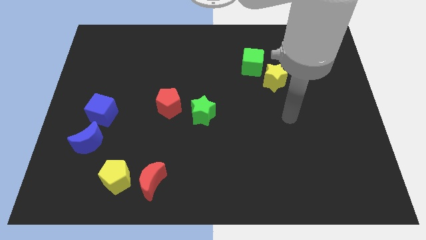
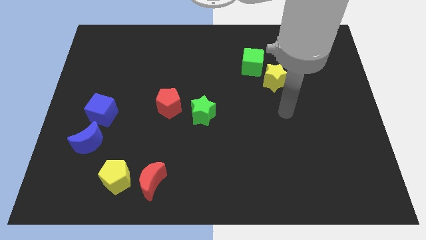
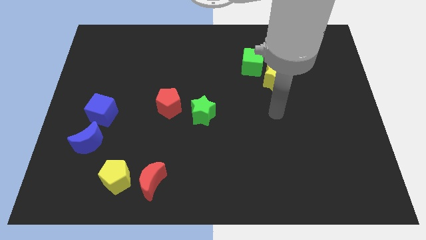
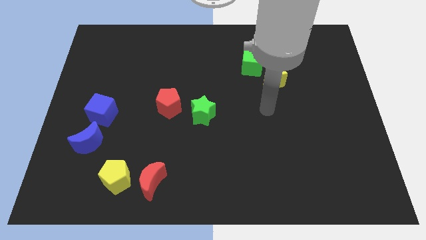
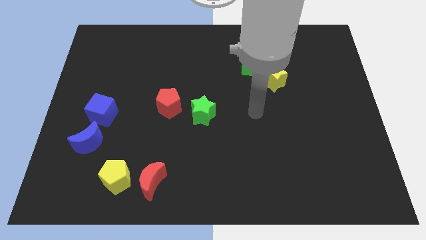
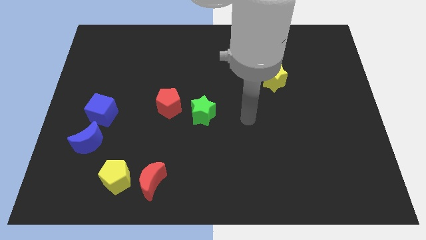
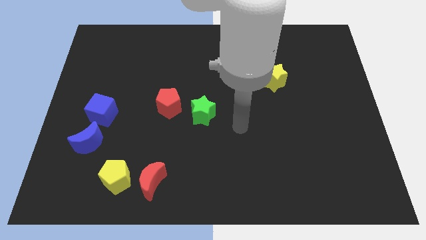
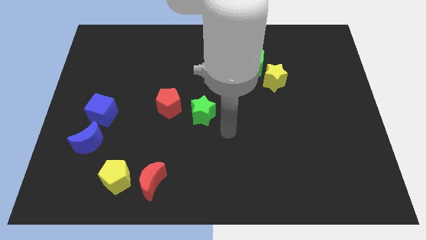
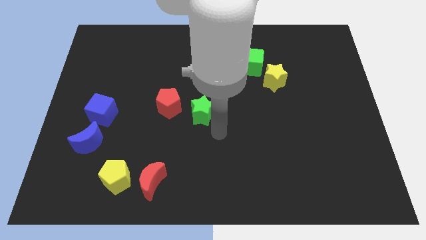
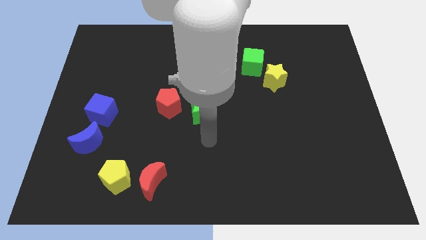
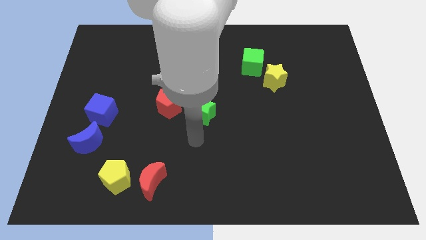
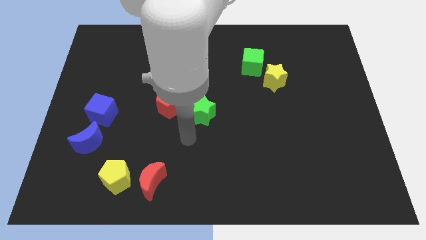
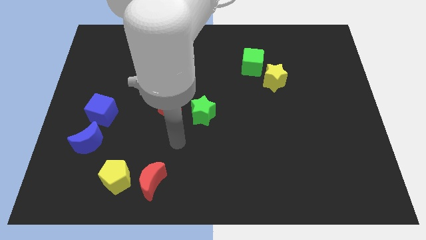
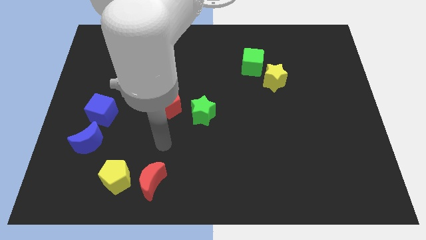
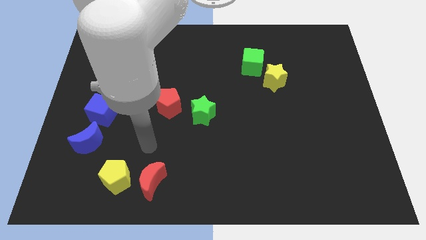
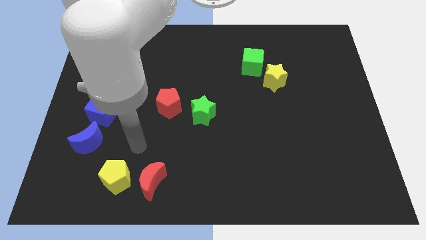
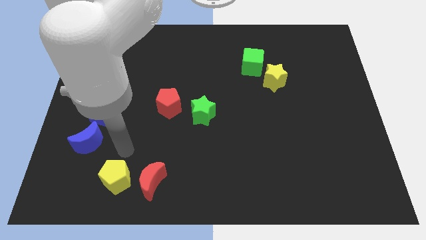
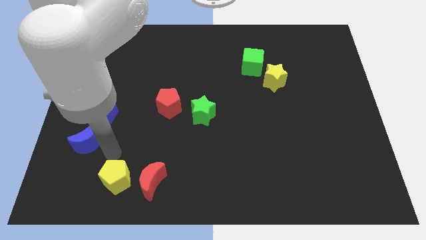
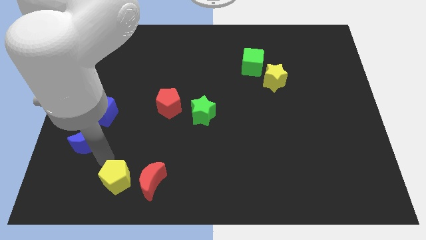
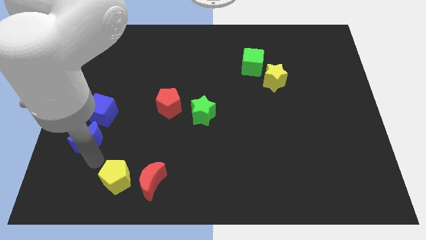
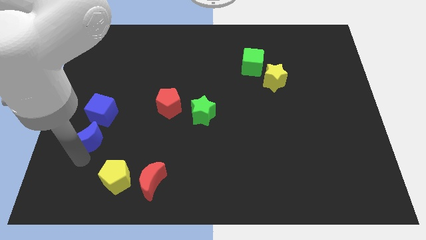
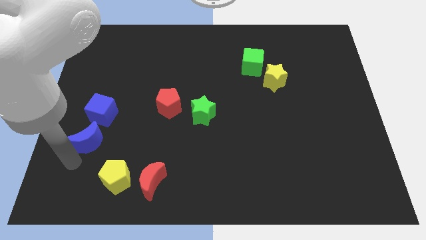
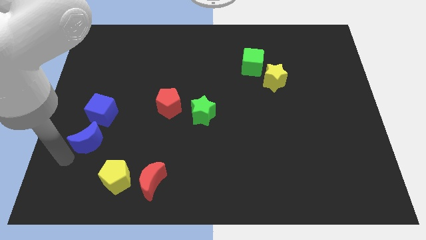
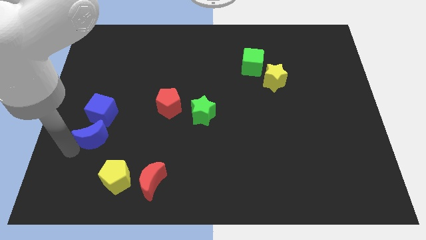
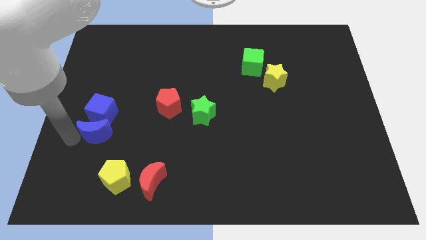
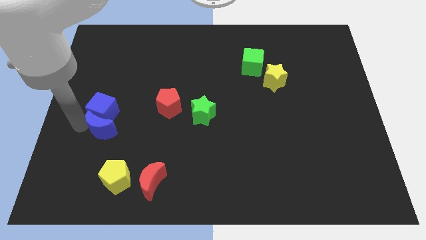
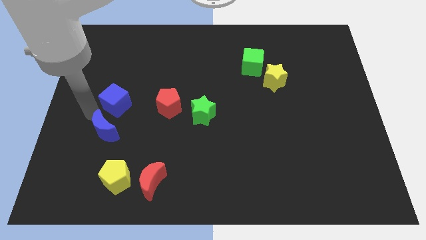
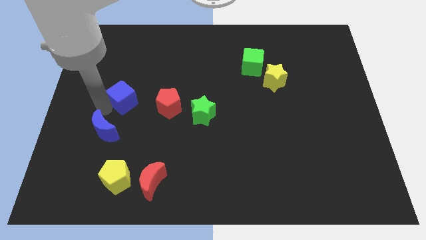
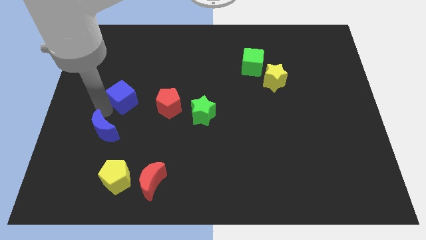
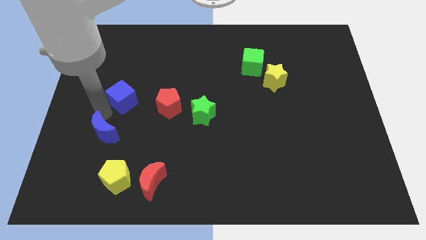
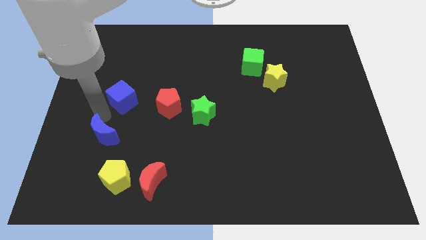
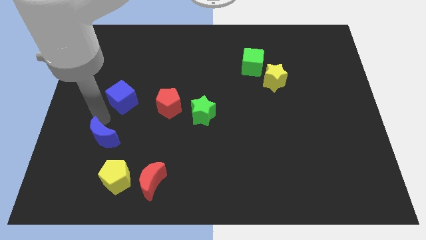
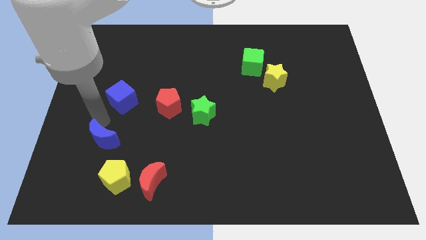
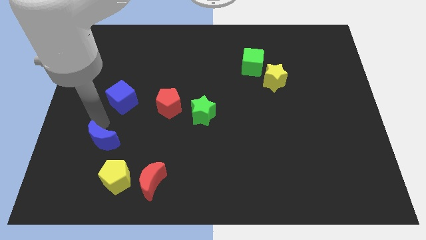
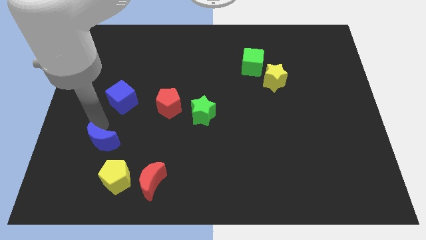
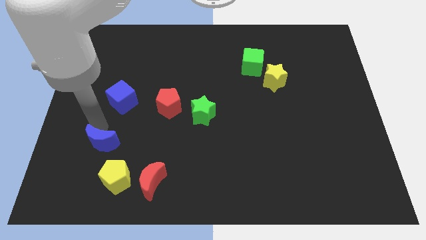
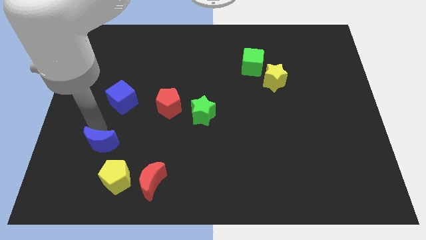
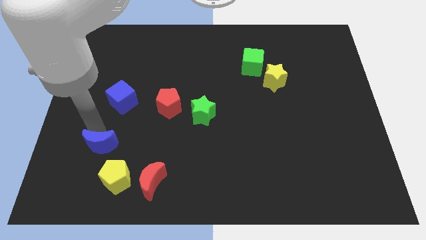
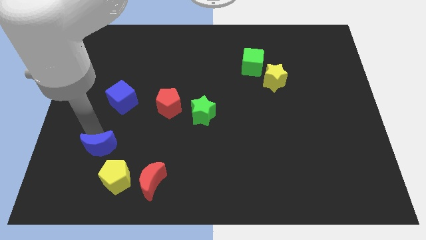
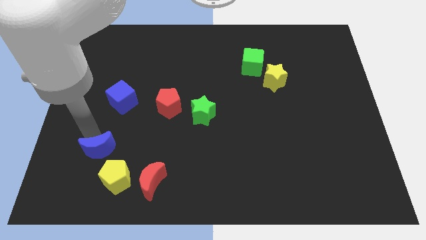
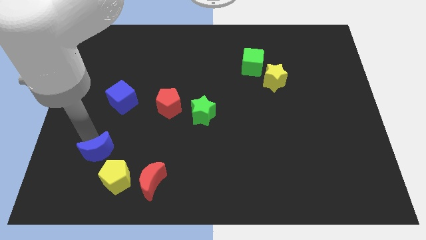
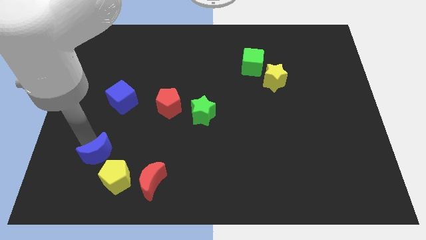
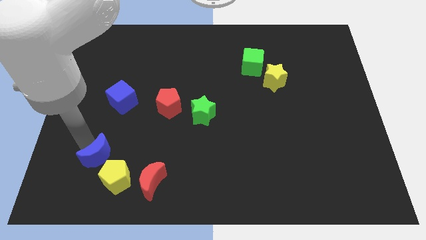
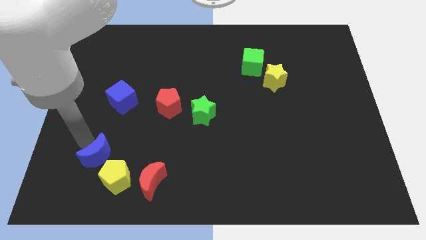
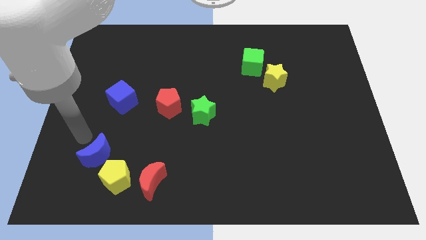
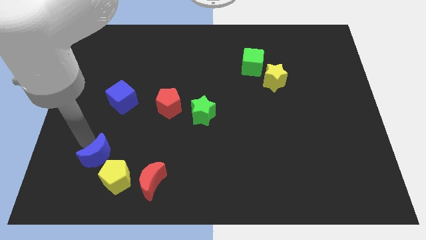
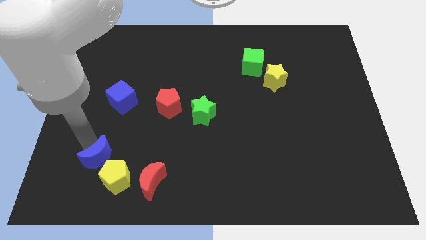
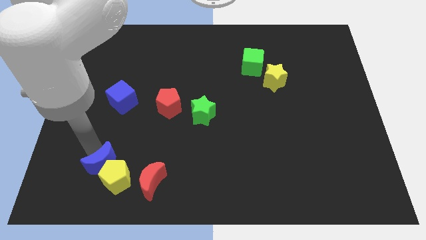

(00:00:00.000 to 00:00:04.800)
push the blue moon towards the yellow pentagon

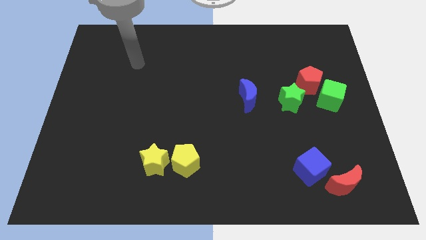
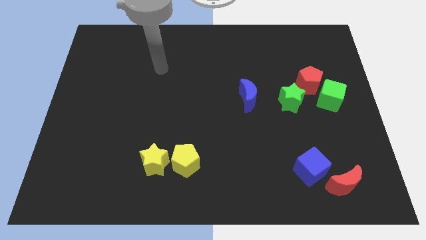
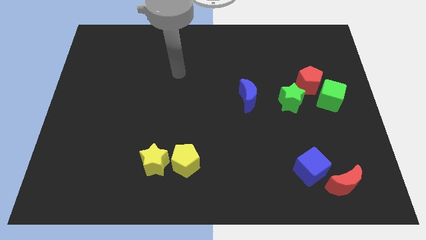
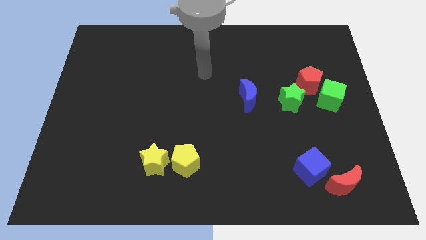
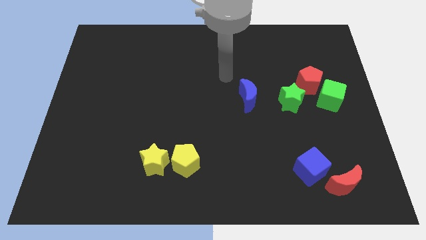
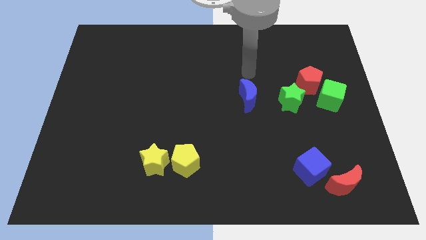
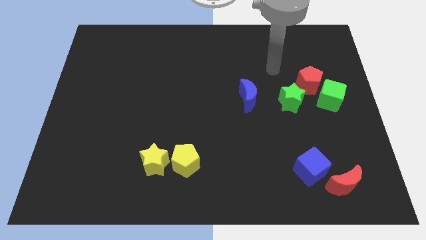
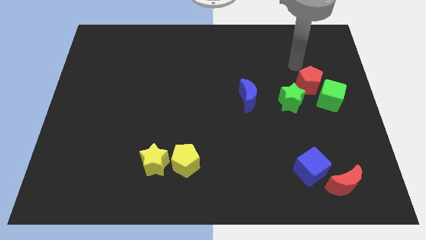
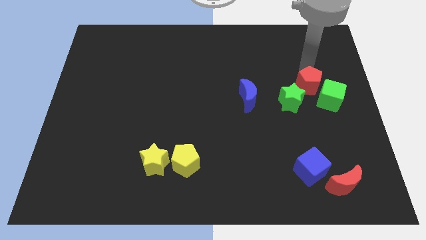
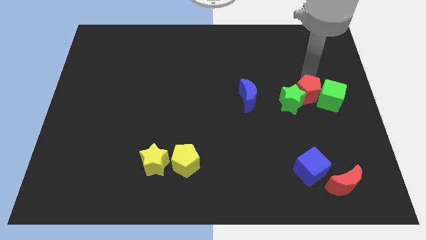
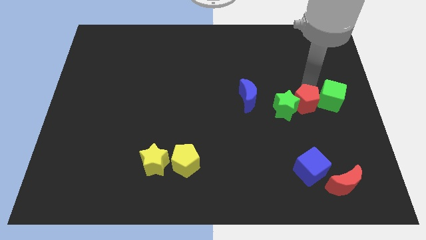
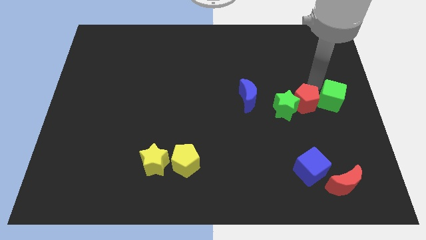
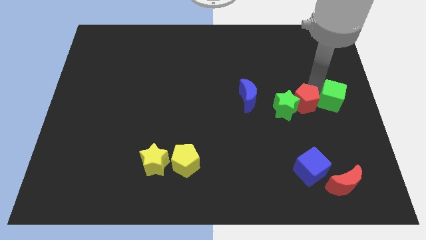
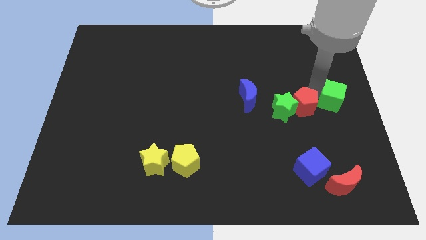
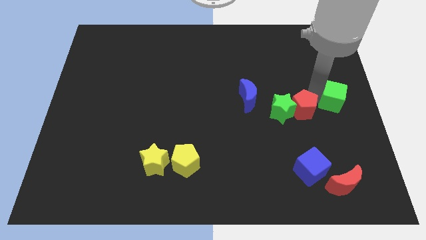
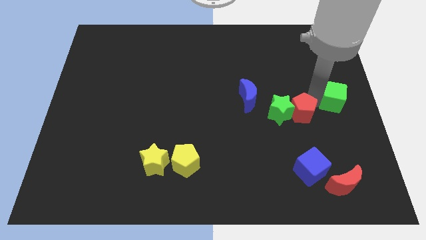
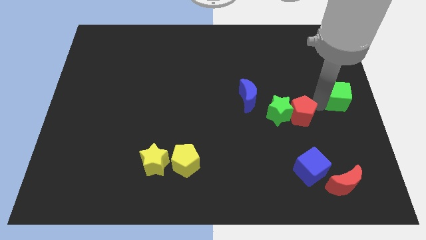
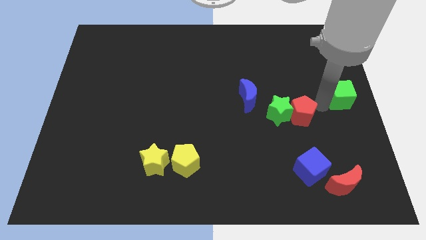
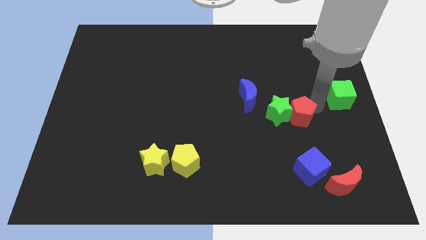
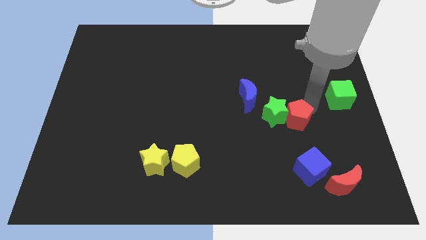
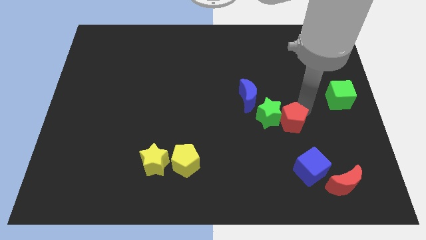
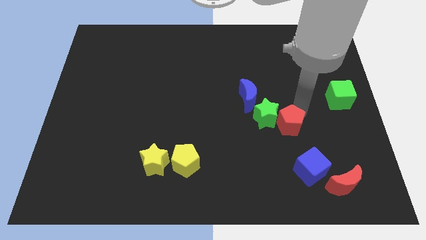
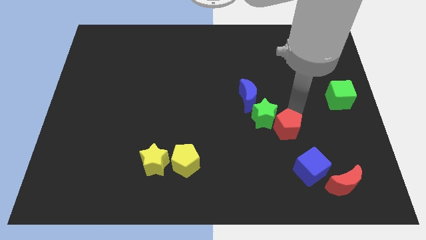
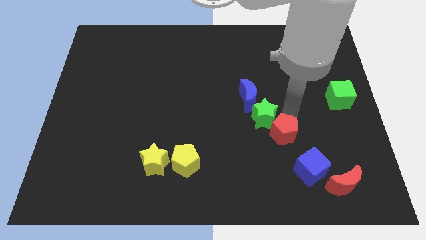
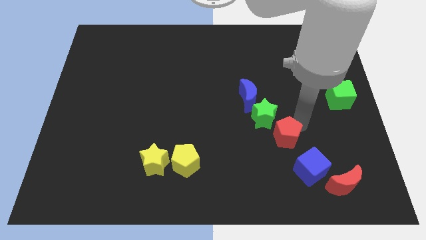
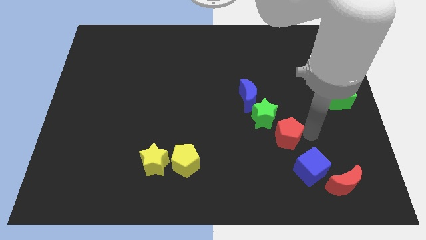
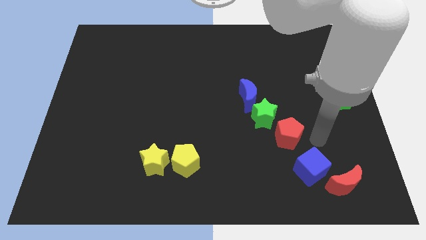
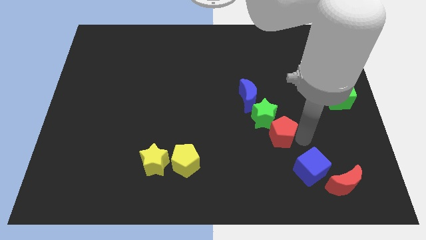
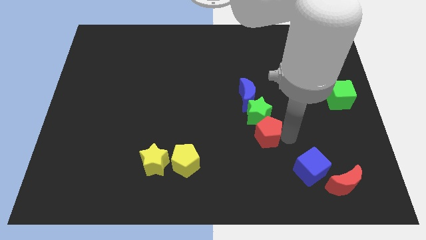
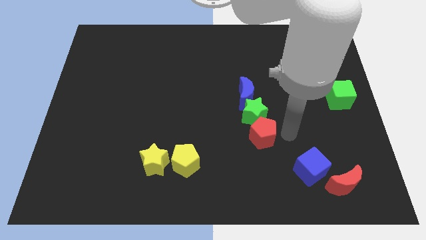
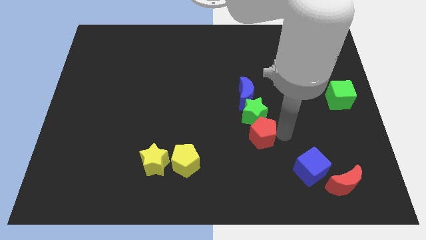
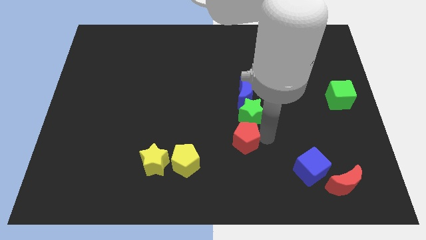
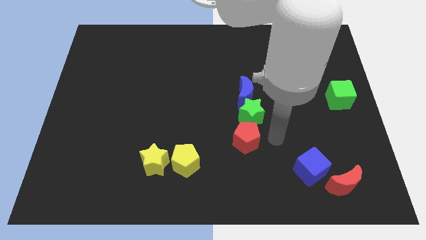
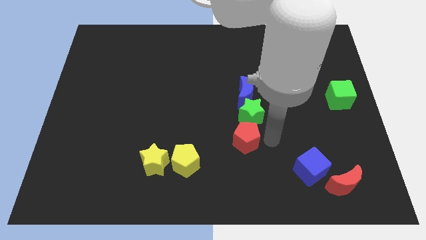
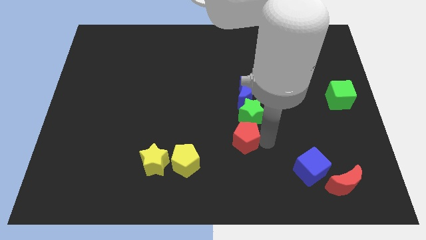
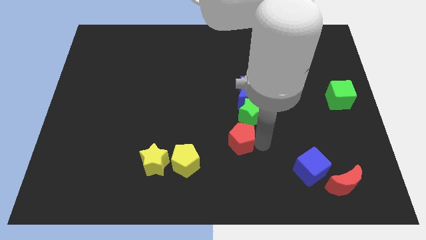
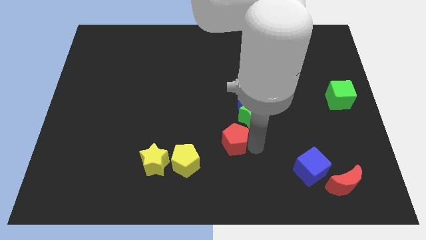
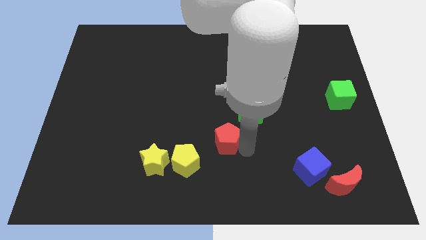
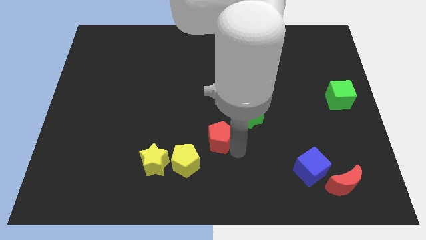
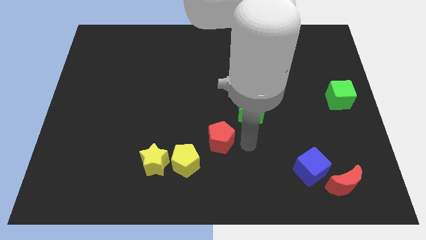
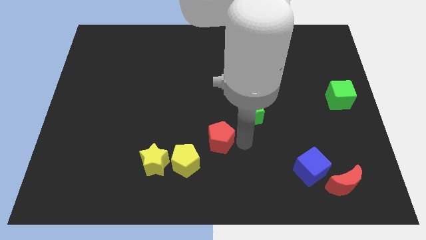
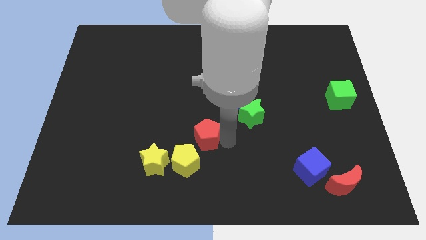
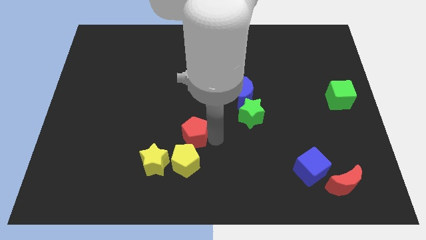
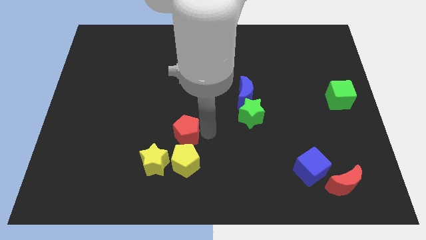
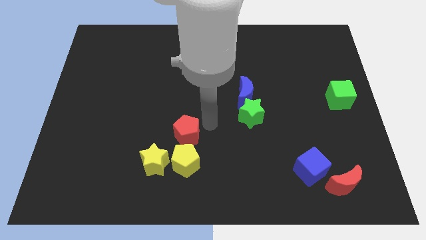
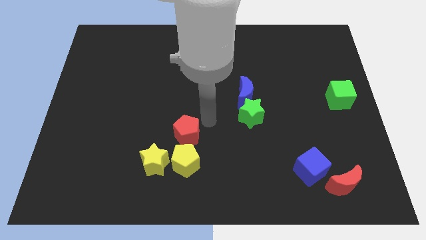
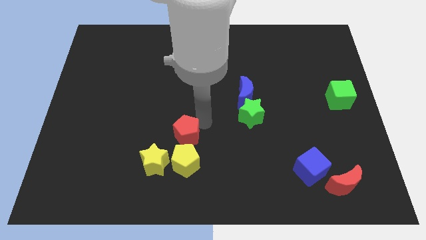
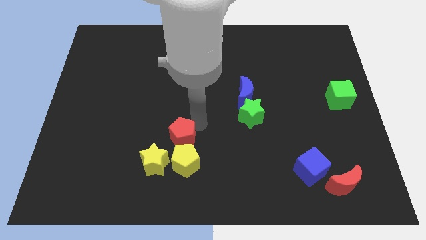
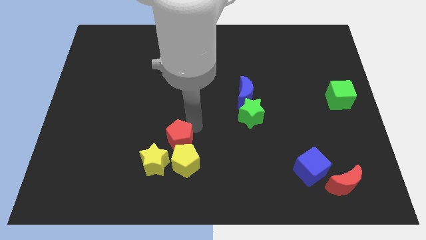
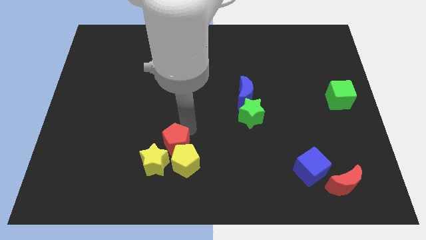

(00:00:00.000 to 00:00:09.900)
slide the red pentagon close to the yellow star
